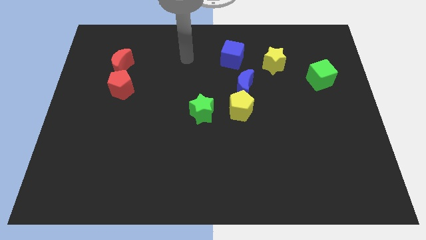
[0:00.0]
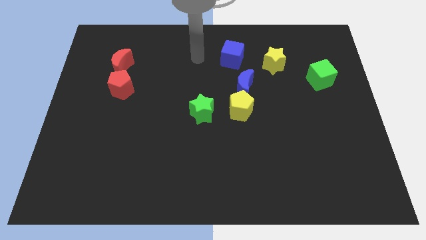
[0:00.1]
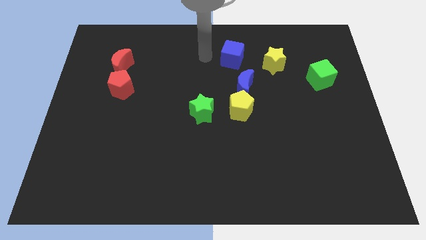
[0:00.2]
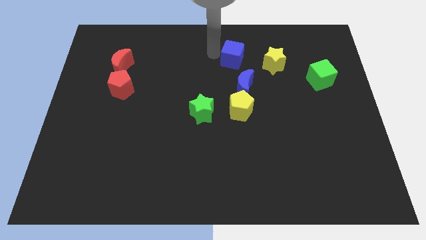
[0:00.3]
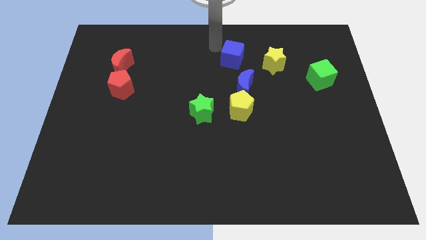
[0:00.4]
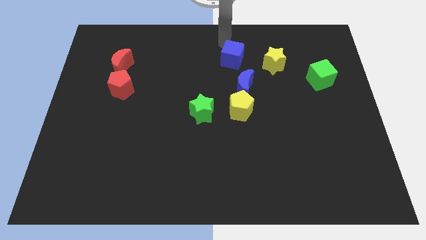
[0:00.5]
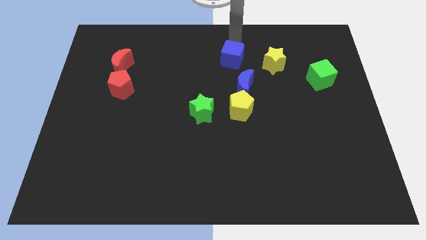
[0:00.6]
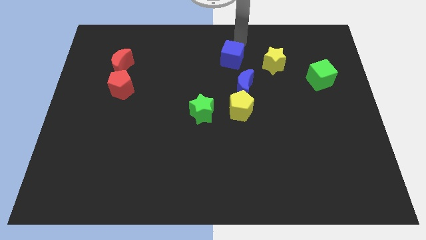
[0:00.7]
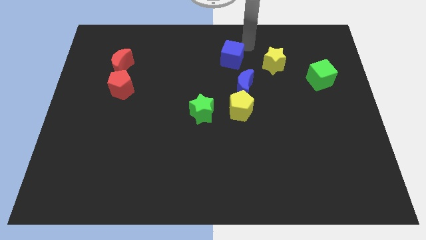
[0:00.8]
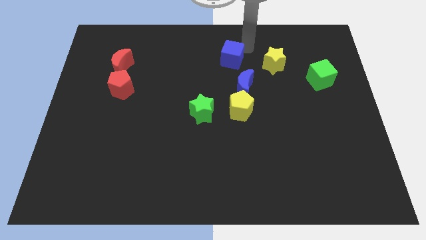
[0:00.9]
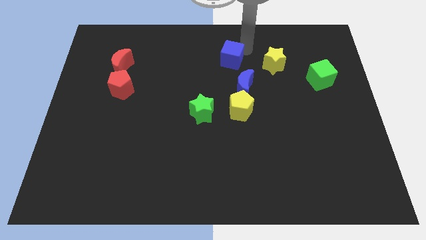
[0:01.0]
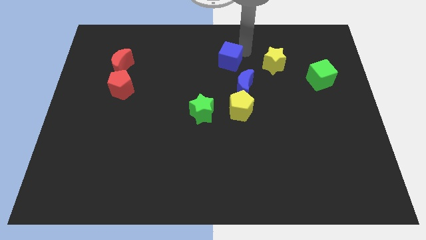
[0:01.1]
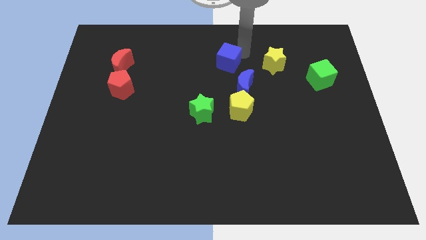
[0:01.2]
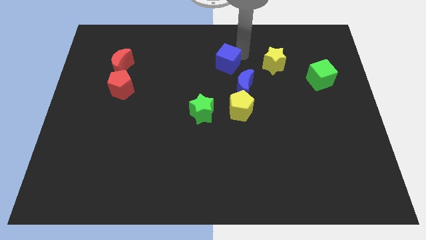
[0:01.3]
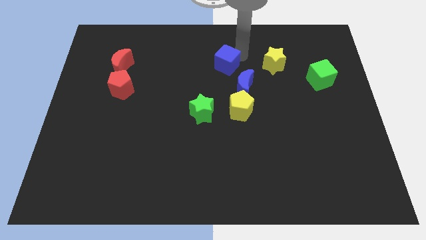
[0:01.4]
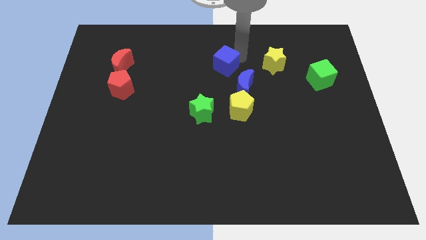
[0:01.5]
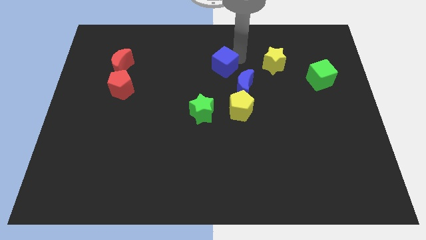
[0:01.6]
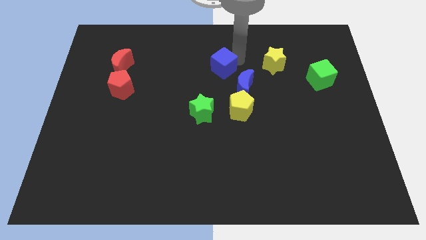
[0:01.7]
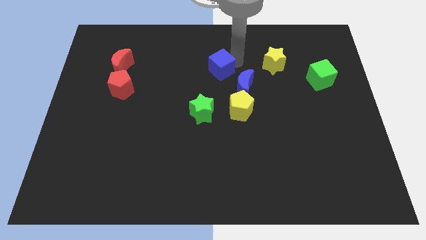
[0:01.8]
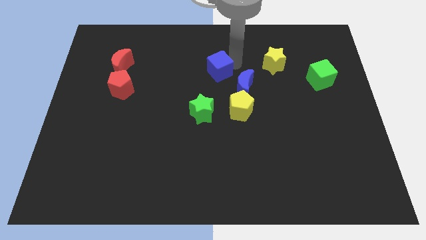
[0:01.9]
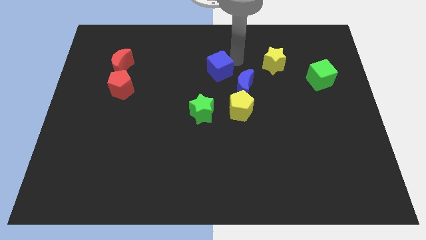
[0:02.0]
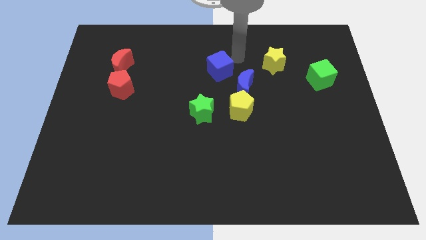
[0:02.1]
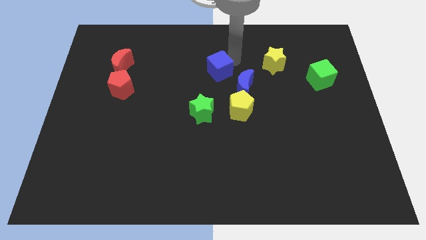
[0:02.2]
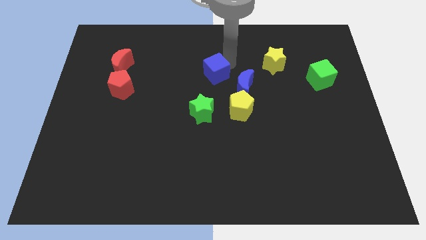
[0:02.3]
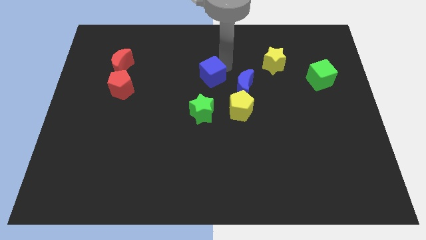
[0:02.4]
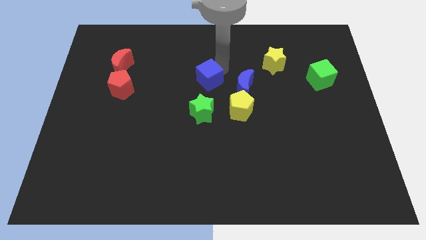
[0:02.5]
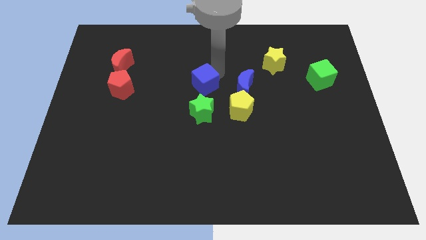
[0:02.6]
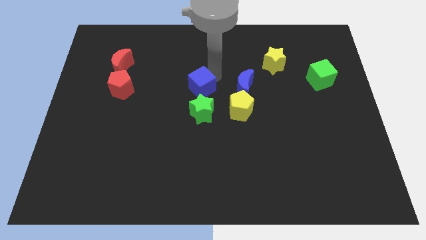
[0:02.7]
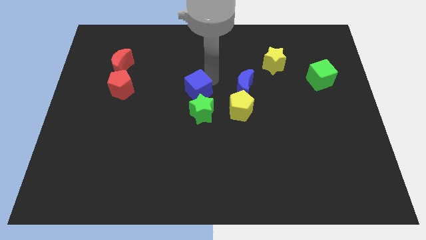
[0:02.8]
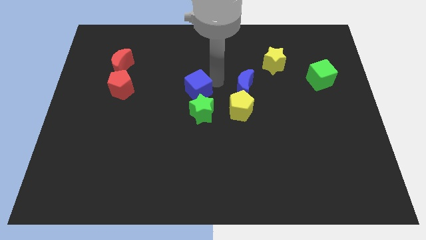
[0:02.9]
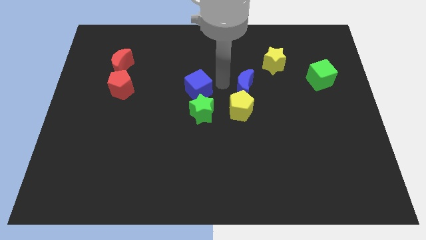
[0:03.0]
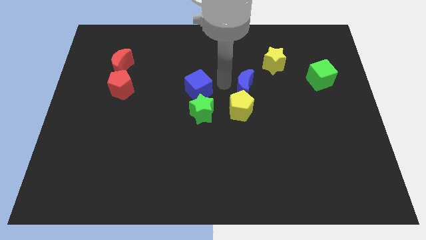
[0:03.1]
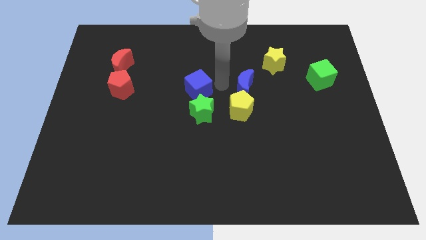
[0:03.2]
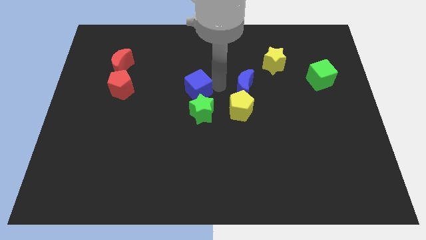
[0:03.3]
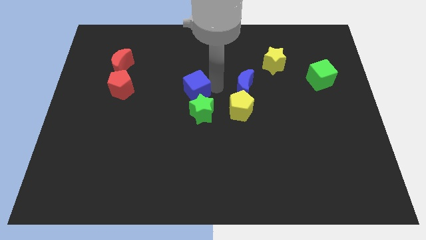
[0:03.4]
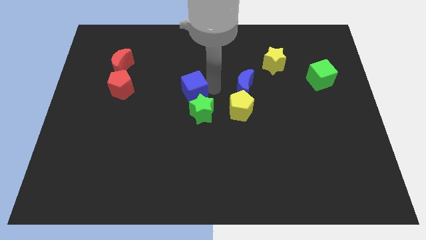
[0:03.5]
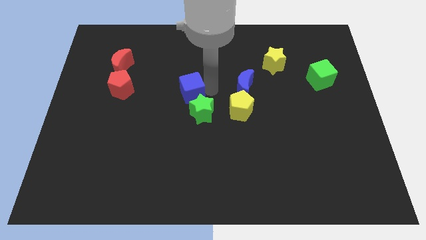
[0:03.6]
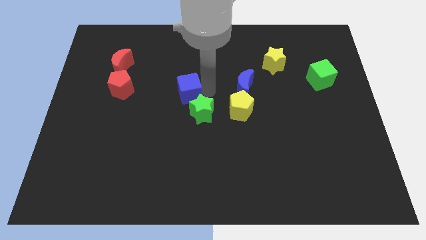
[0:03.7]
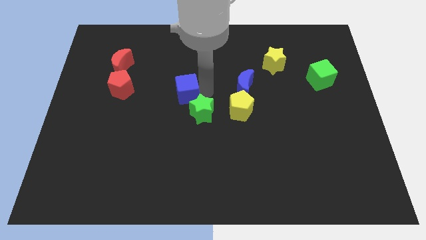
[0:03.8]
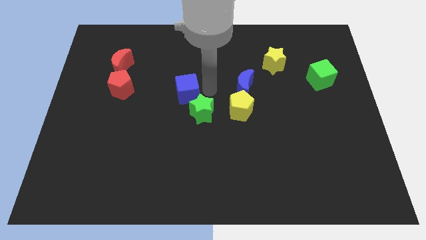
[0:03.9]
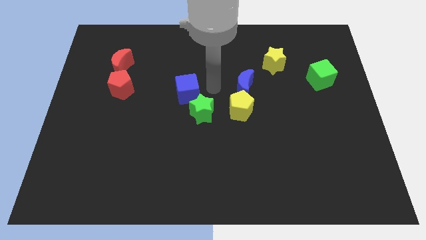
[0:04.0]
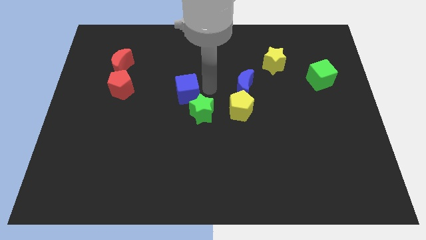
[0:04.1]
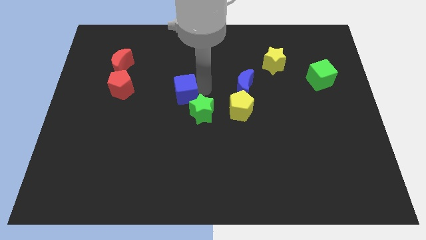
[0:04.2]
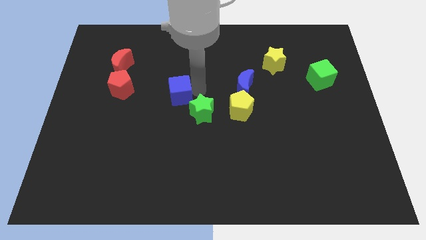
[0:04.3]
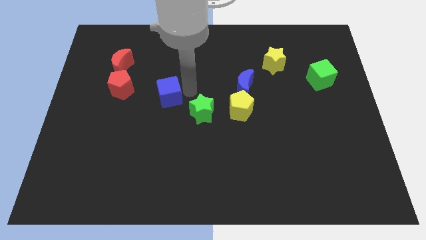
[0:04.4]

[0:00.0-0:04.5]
move the blue cube down and to the left

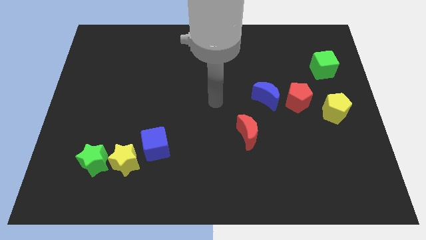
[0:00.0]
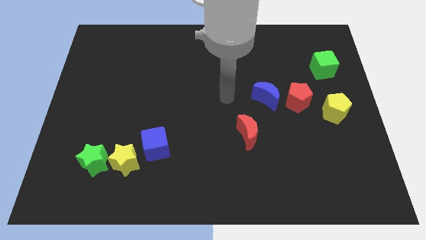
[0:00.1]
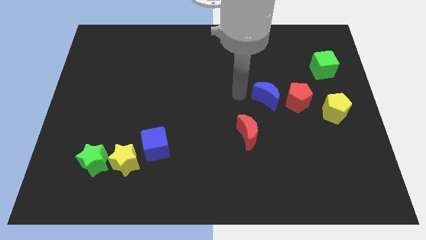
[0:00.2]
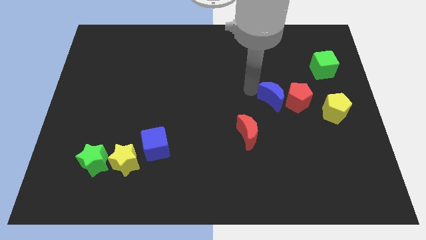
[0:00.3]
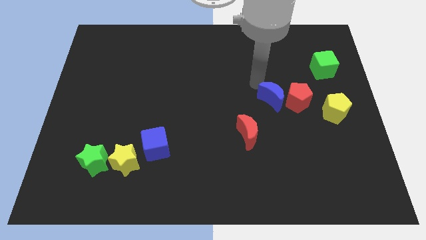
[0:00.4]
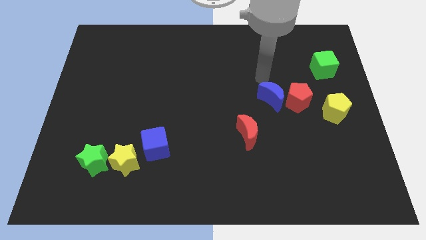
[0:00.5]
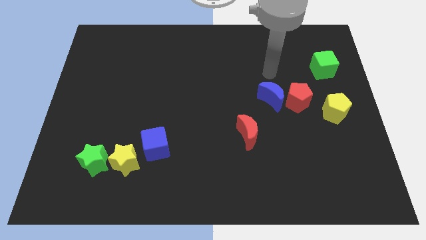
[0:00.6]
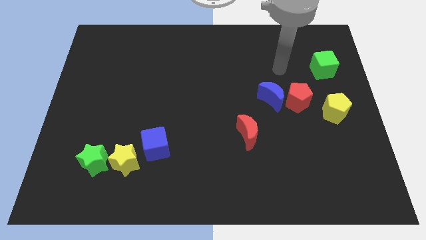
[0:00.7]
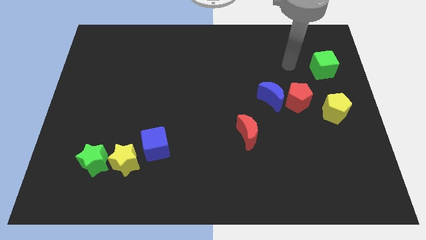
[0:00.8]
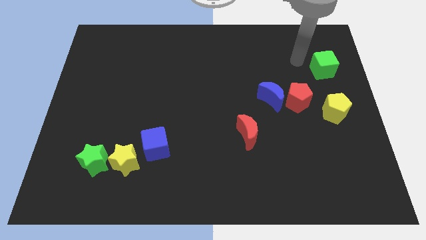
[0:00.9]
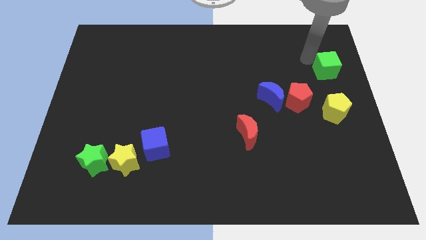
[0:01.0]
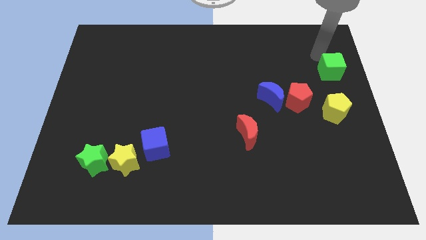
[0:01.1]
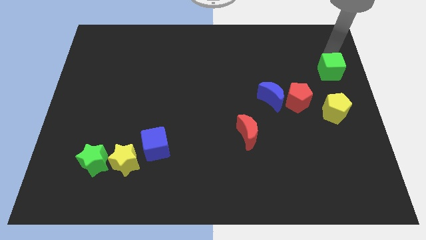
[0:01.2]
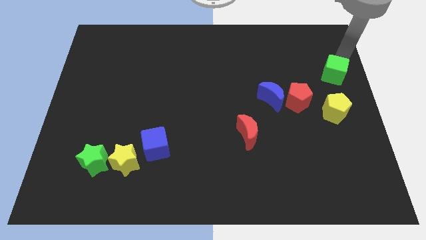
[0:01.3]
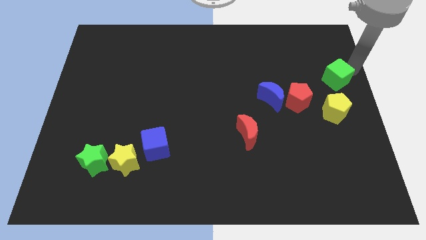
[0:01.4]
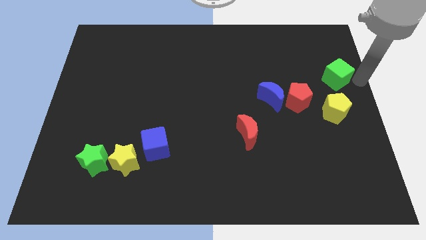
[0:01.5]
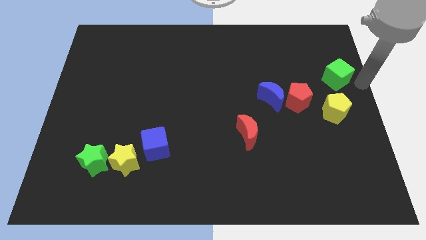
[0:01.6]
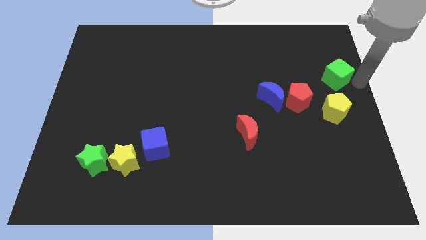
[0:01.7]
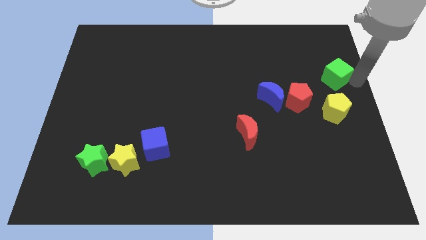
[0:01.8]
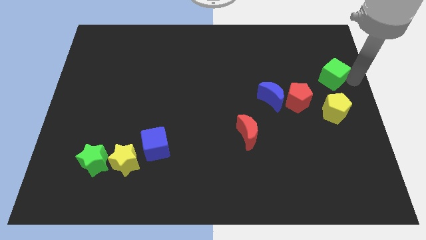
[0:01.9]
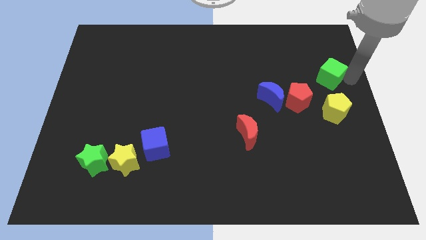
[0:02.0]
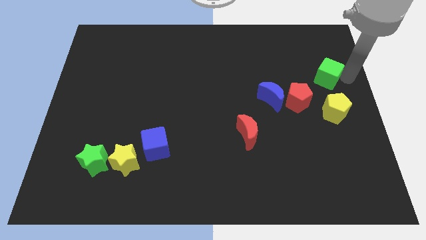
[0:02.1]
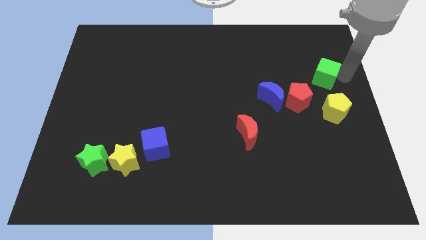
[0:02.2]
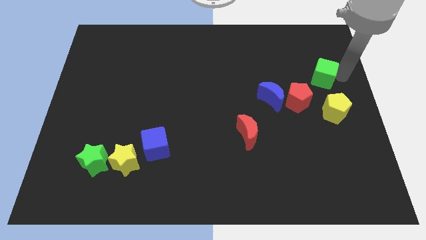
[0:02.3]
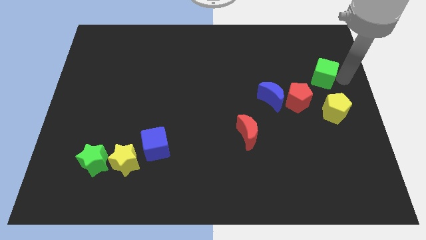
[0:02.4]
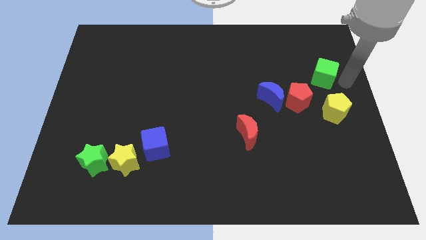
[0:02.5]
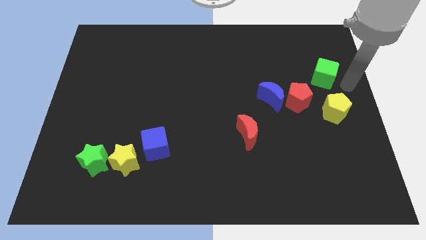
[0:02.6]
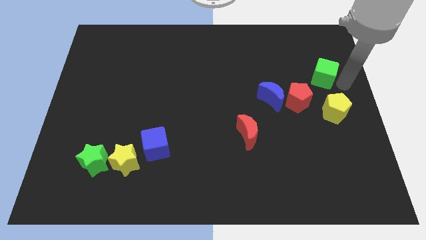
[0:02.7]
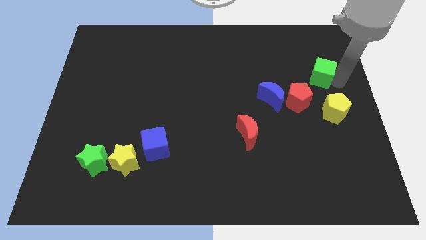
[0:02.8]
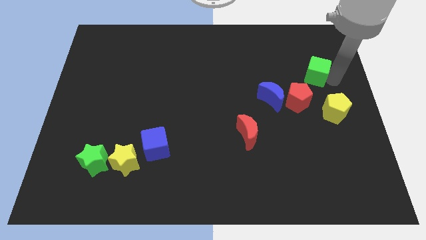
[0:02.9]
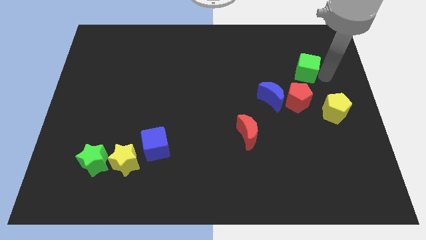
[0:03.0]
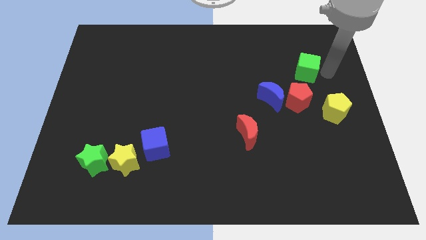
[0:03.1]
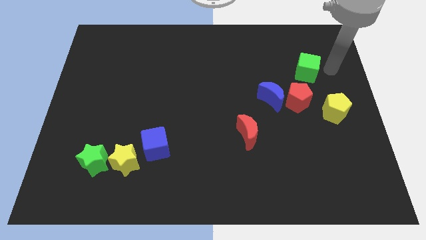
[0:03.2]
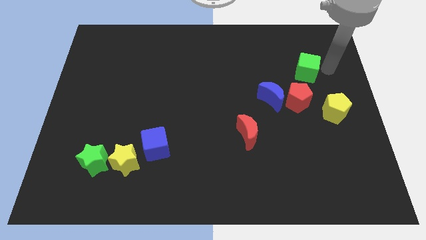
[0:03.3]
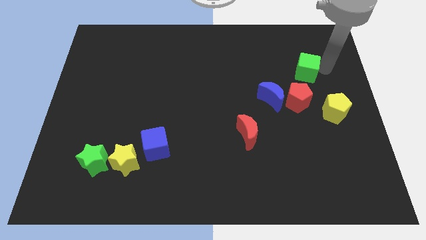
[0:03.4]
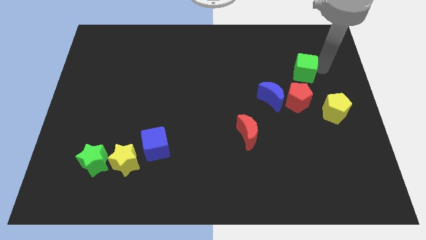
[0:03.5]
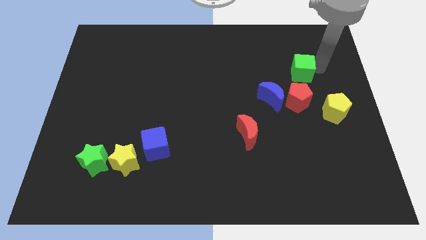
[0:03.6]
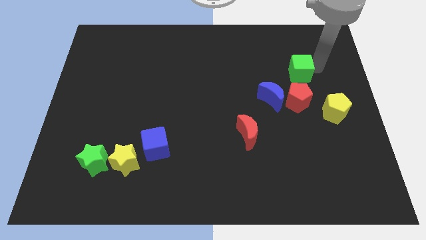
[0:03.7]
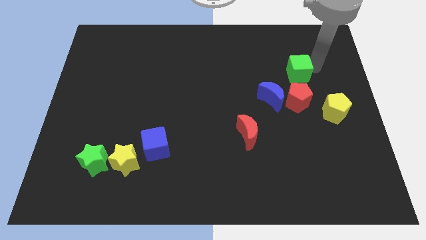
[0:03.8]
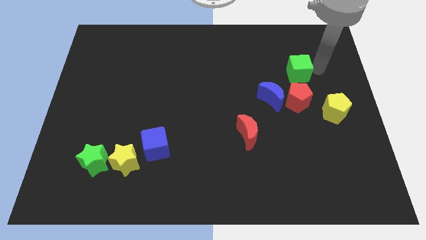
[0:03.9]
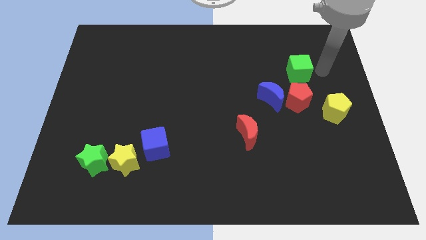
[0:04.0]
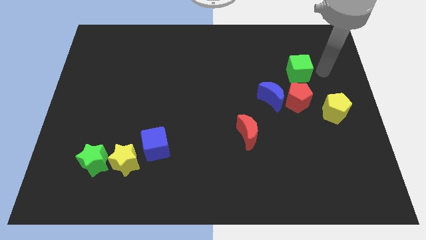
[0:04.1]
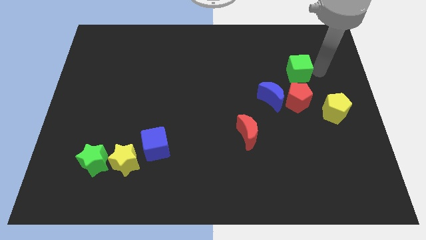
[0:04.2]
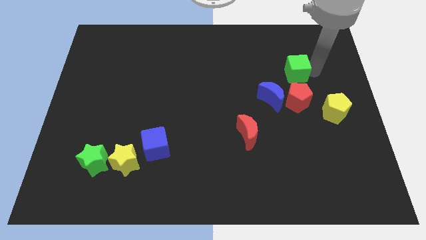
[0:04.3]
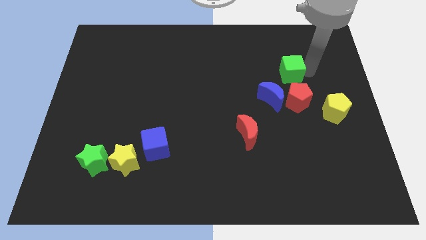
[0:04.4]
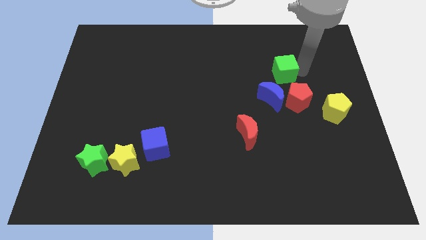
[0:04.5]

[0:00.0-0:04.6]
move the green cube a little bit down and to the left diagonally
